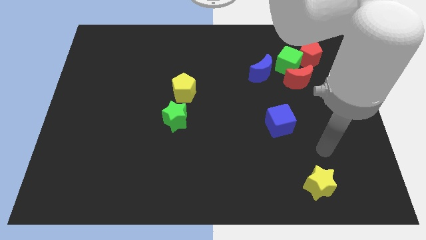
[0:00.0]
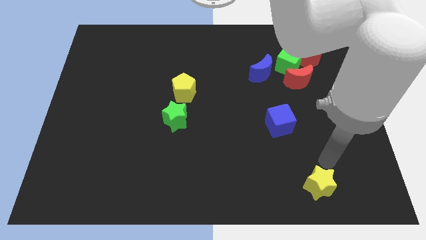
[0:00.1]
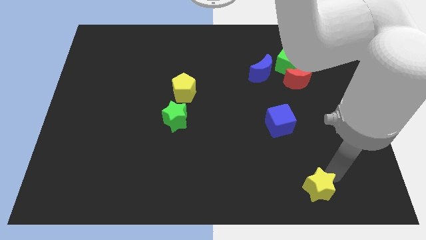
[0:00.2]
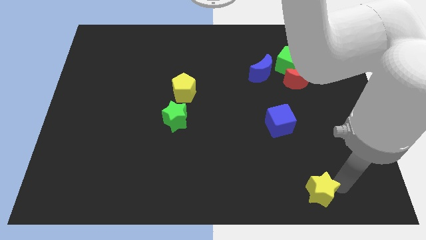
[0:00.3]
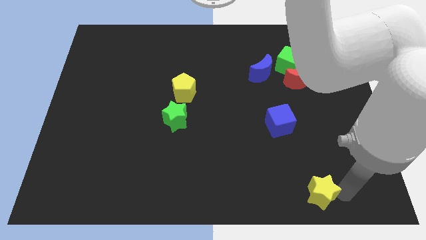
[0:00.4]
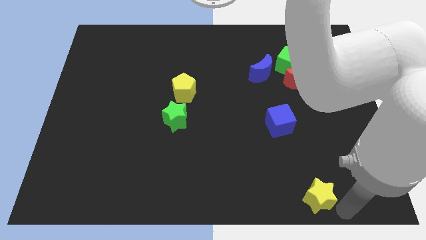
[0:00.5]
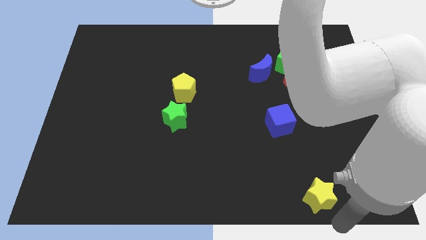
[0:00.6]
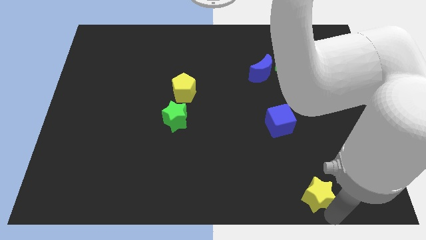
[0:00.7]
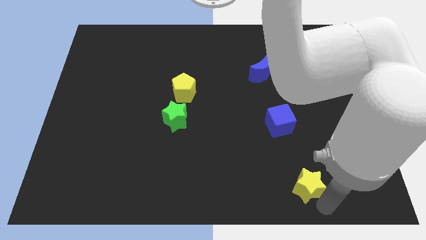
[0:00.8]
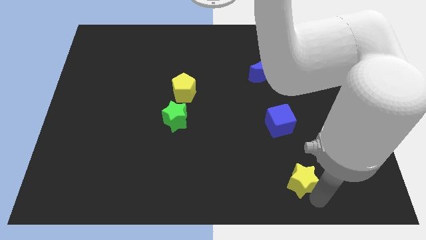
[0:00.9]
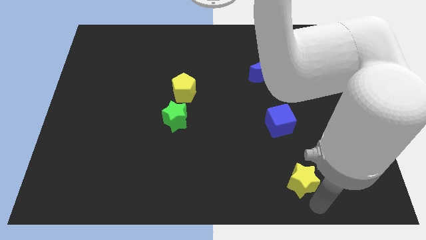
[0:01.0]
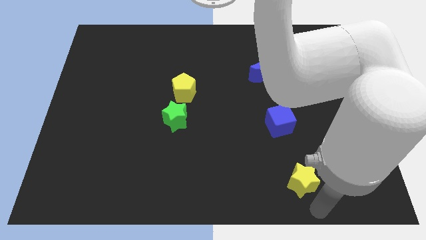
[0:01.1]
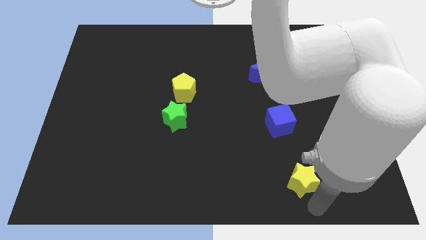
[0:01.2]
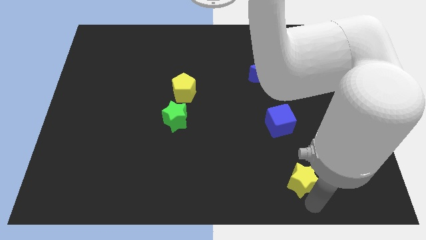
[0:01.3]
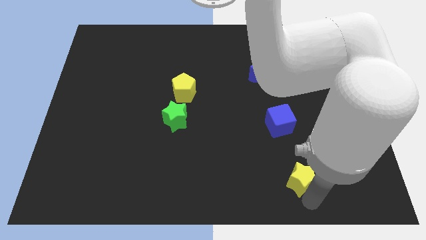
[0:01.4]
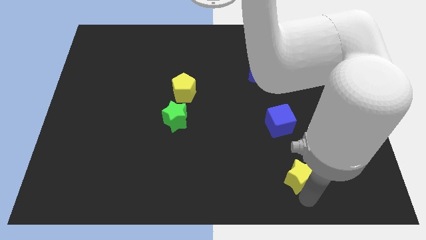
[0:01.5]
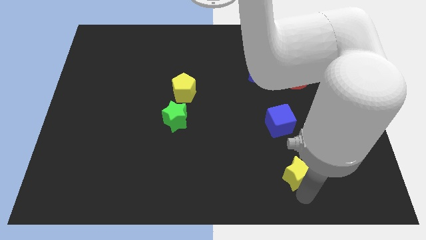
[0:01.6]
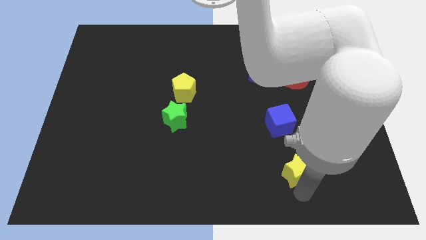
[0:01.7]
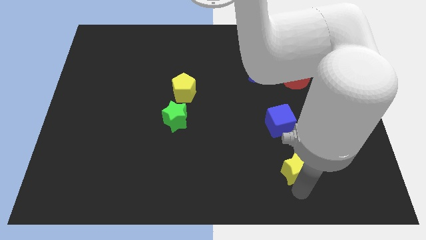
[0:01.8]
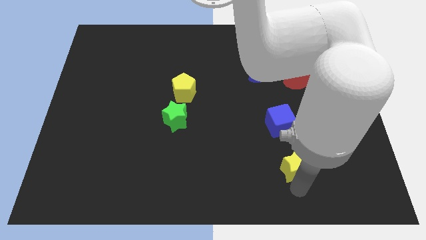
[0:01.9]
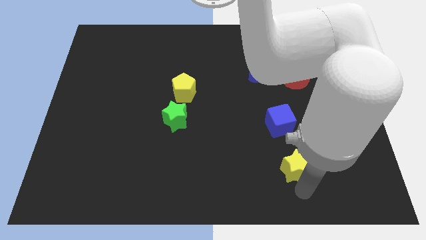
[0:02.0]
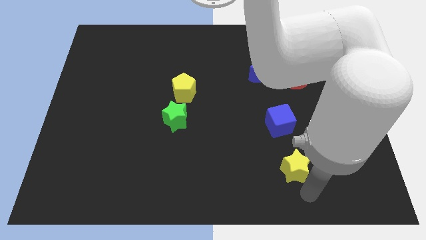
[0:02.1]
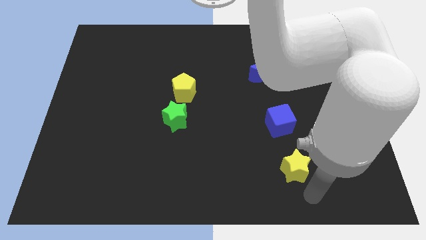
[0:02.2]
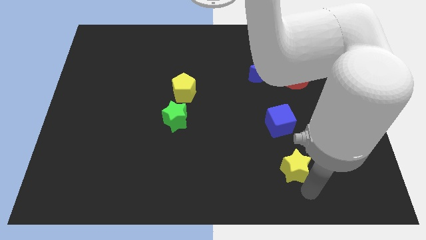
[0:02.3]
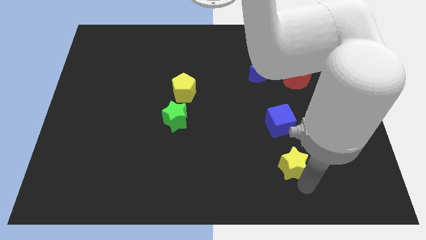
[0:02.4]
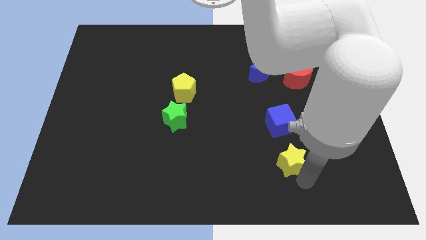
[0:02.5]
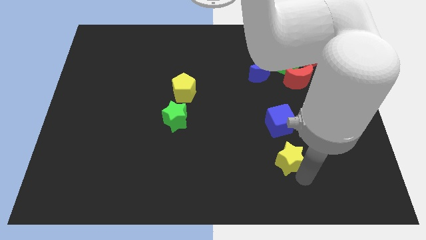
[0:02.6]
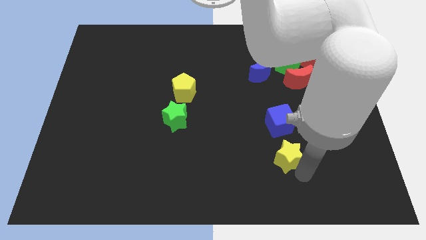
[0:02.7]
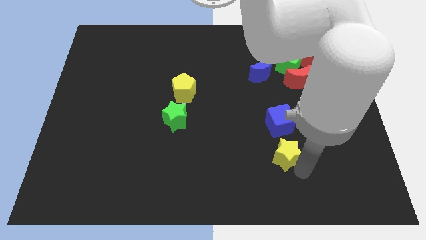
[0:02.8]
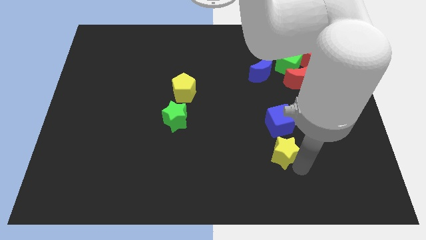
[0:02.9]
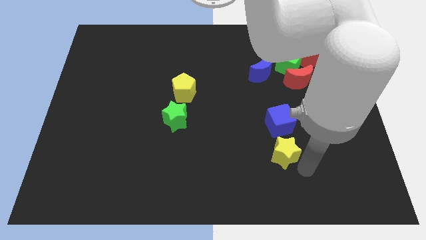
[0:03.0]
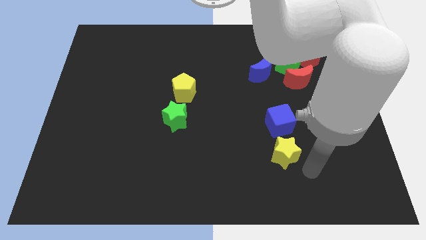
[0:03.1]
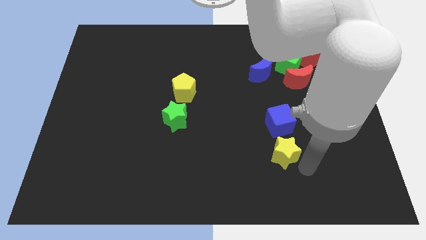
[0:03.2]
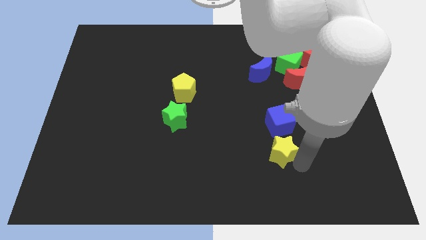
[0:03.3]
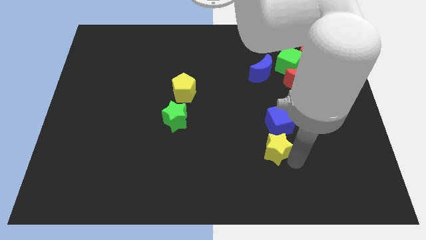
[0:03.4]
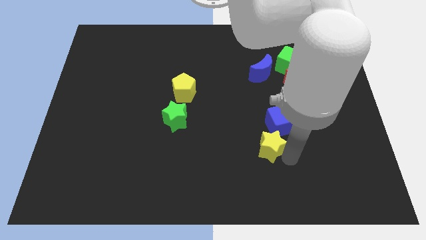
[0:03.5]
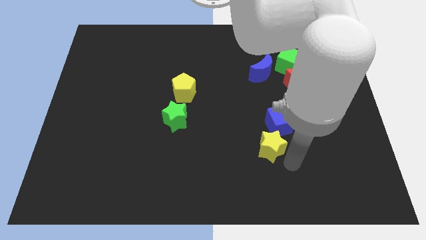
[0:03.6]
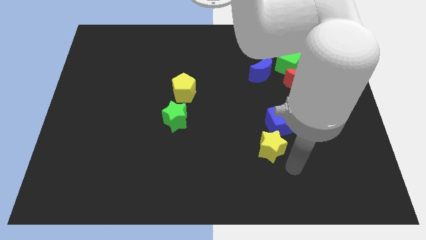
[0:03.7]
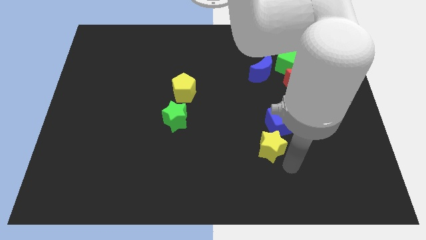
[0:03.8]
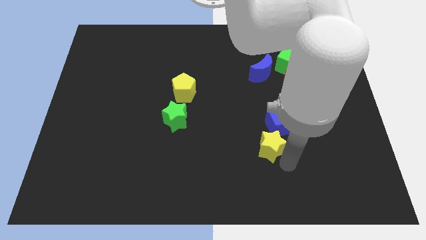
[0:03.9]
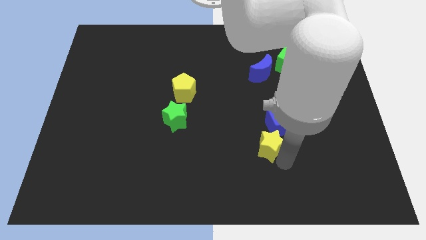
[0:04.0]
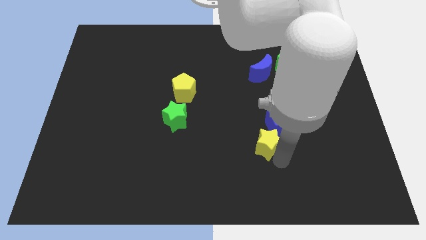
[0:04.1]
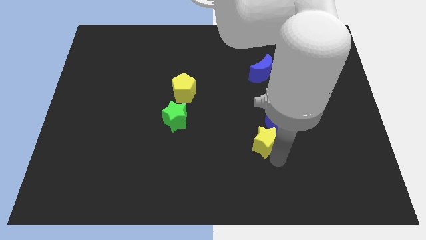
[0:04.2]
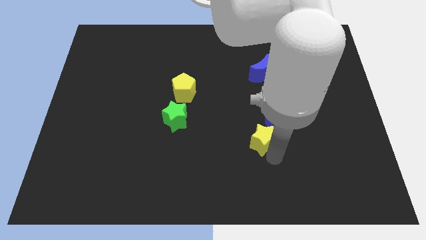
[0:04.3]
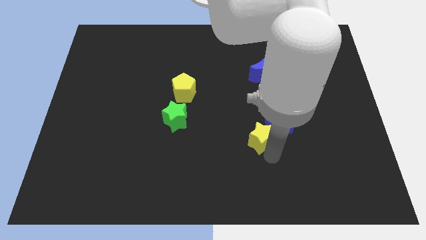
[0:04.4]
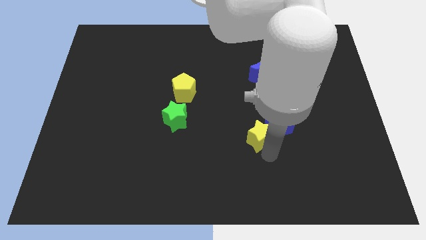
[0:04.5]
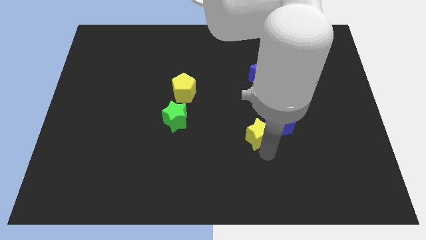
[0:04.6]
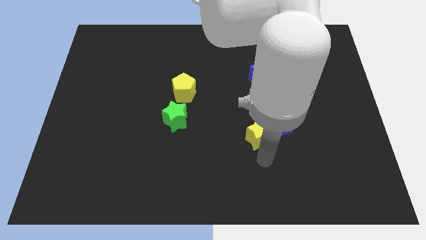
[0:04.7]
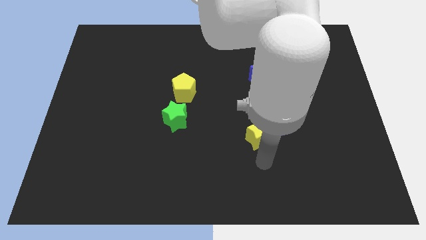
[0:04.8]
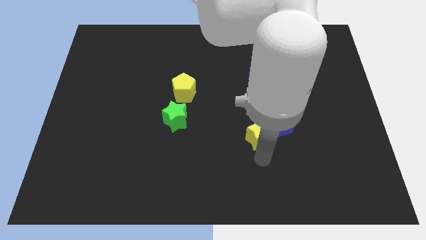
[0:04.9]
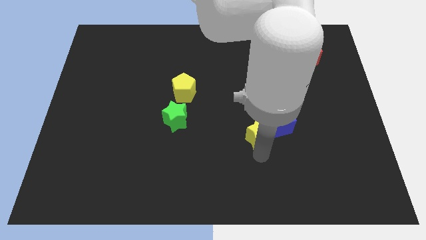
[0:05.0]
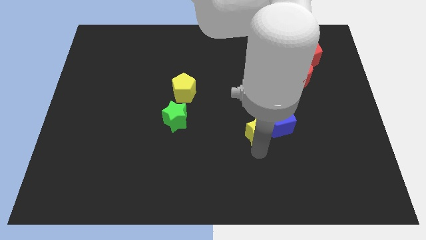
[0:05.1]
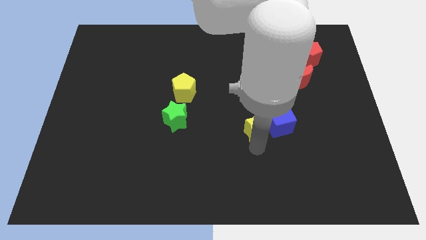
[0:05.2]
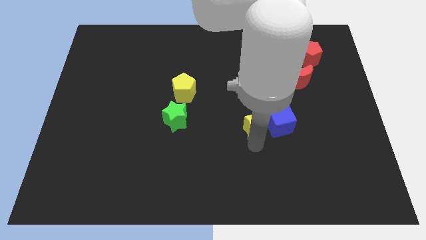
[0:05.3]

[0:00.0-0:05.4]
slide the yellow star to the top left side of the blue cube

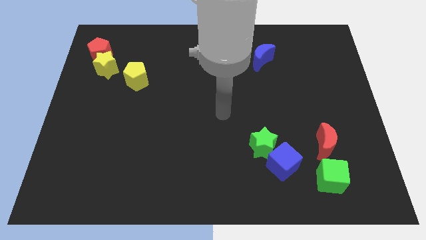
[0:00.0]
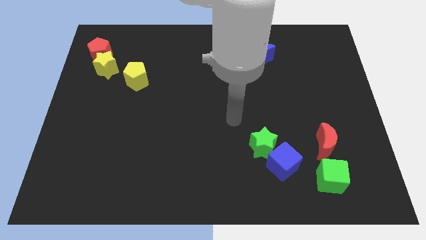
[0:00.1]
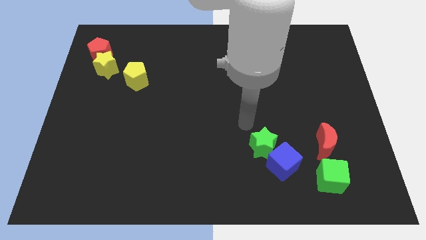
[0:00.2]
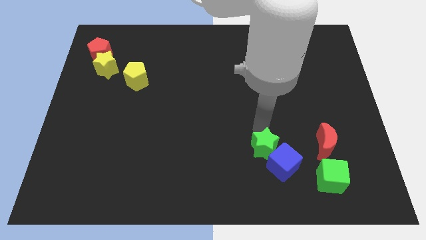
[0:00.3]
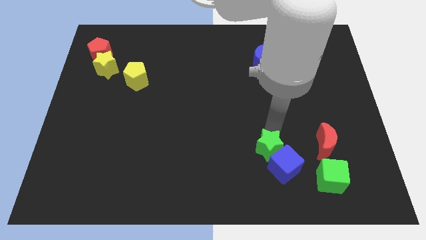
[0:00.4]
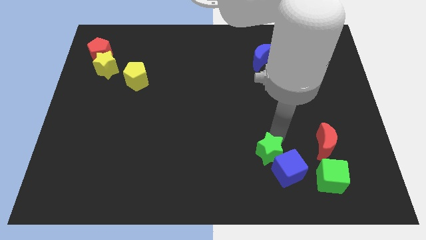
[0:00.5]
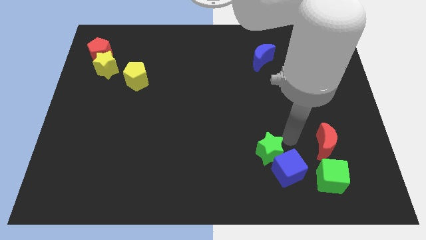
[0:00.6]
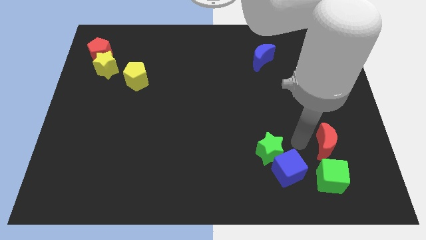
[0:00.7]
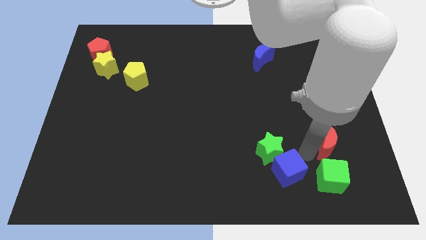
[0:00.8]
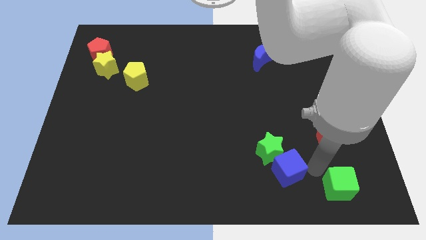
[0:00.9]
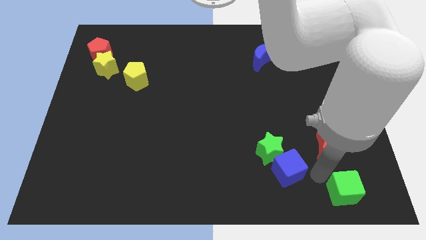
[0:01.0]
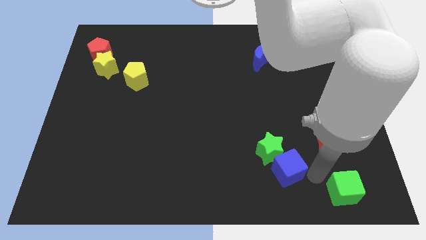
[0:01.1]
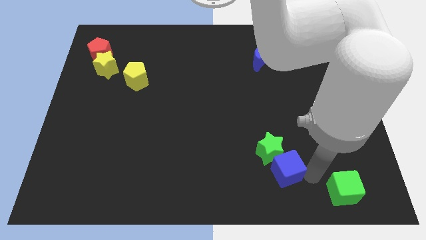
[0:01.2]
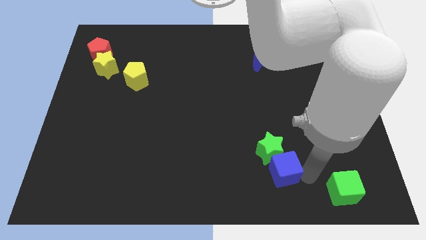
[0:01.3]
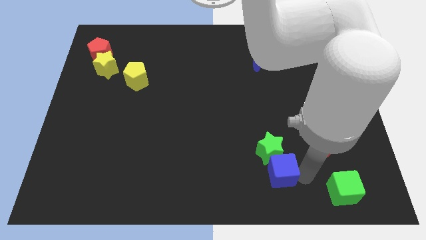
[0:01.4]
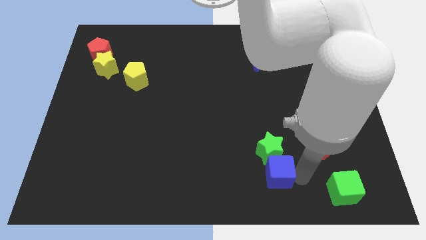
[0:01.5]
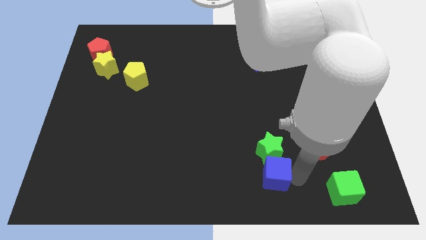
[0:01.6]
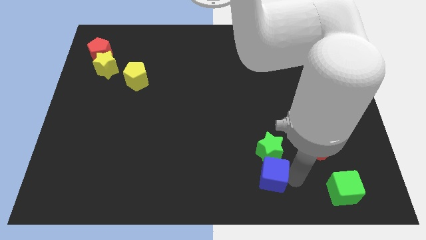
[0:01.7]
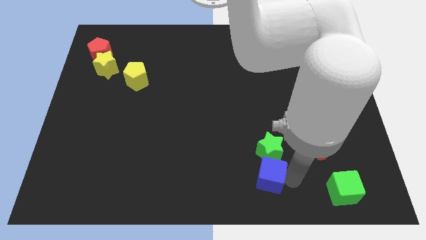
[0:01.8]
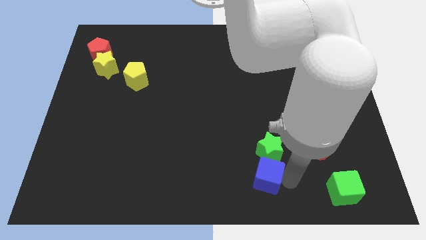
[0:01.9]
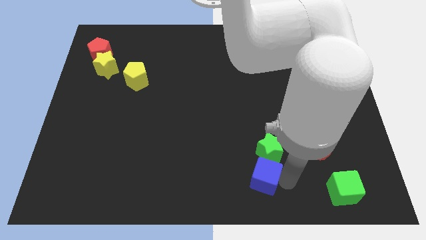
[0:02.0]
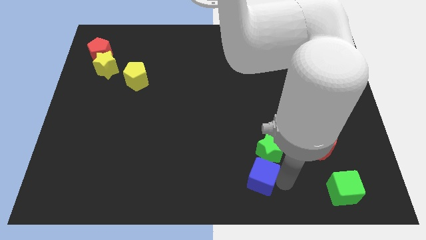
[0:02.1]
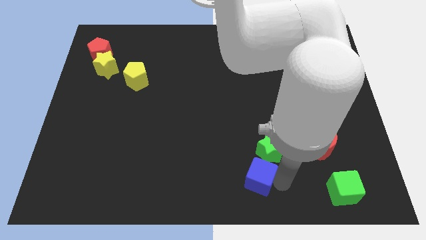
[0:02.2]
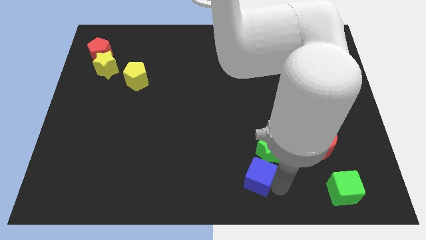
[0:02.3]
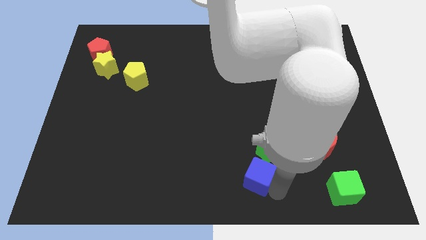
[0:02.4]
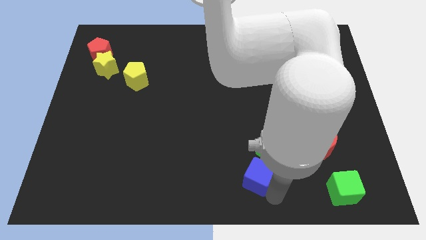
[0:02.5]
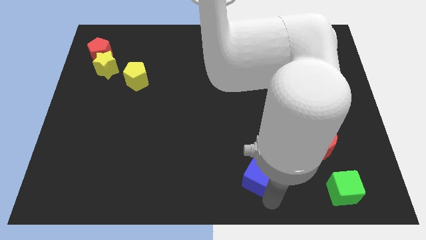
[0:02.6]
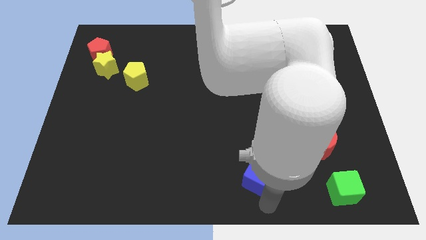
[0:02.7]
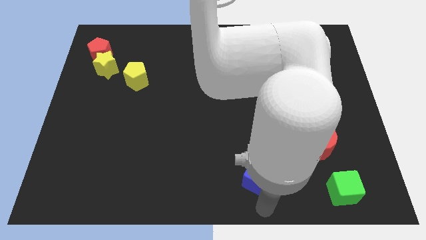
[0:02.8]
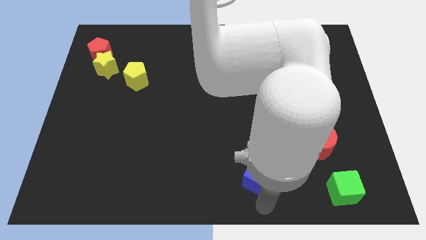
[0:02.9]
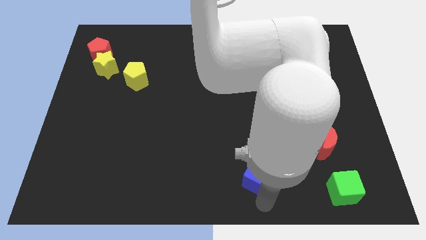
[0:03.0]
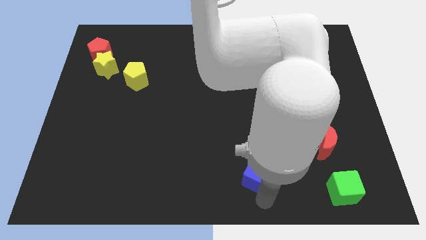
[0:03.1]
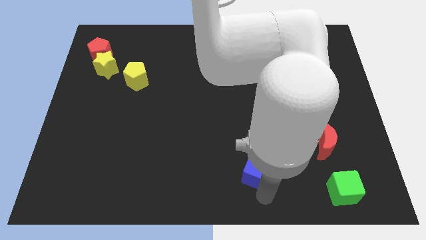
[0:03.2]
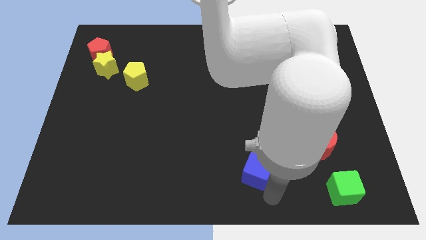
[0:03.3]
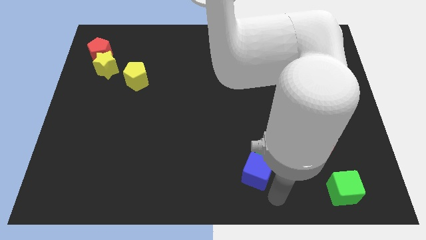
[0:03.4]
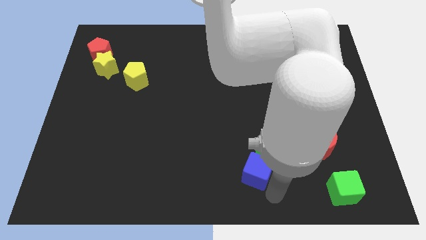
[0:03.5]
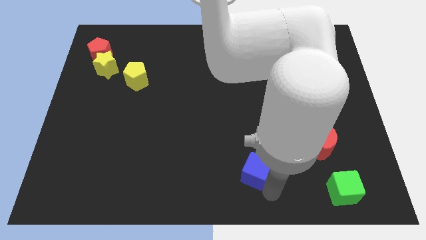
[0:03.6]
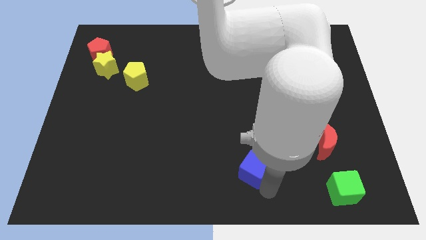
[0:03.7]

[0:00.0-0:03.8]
put the blue cube to the left side of the green star
